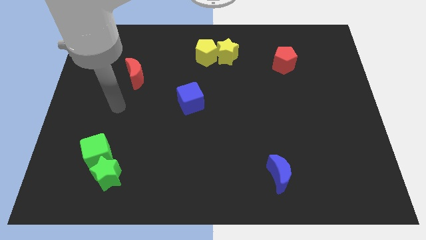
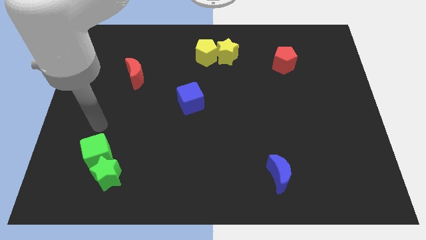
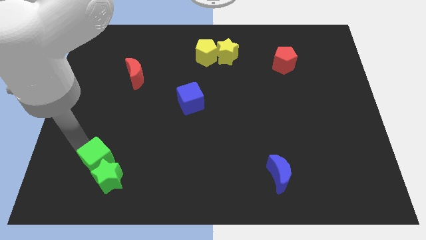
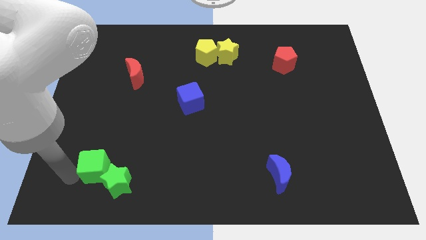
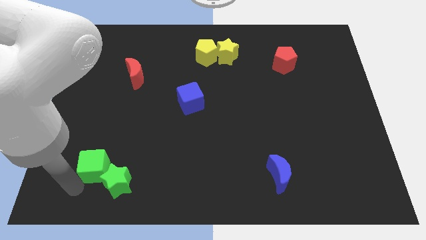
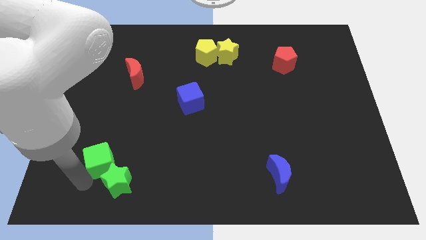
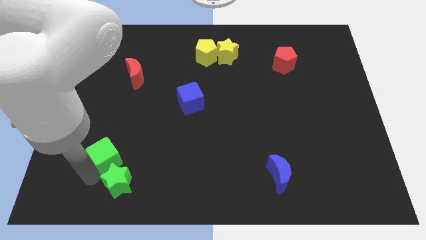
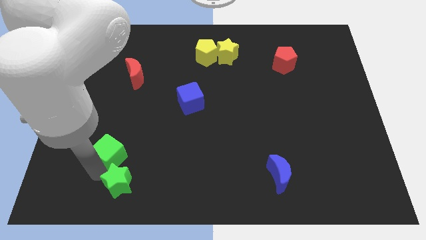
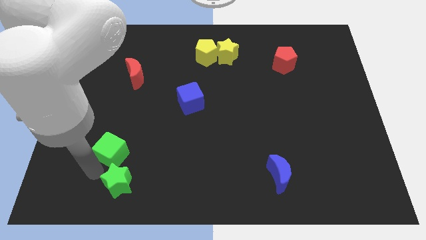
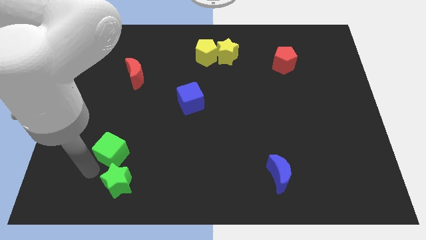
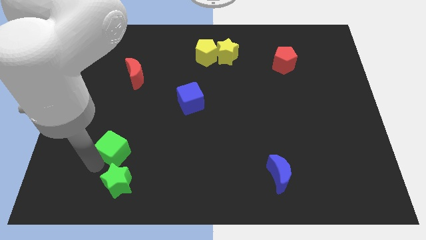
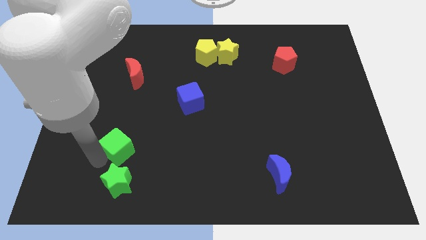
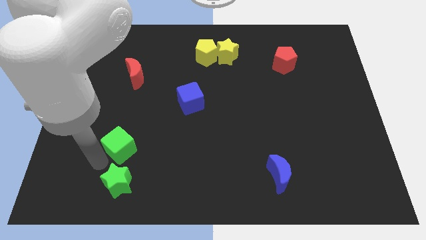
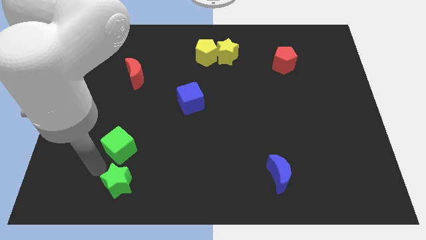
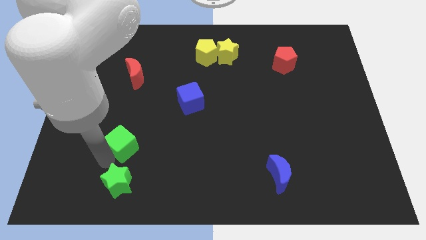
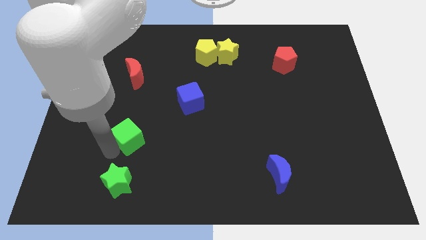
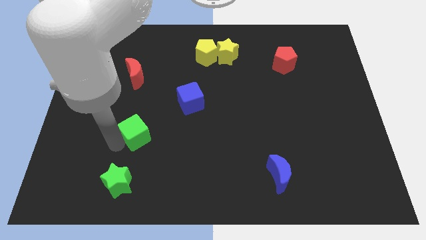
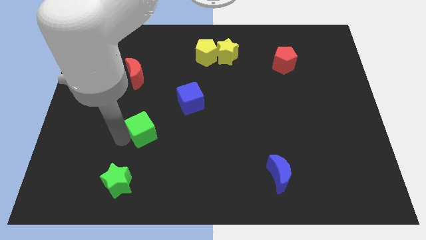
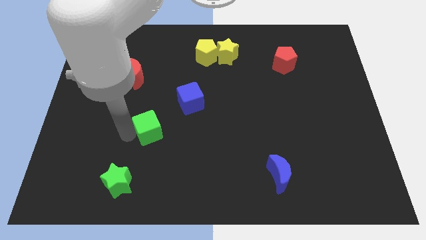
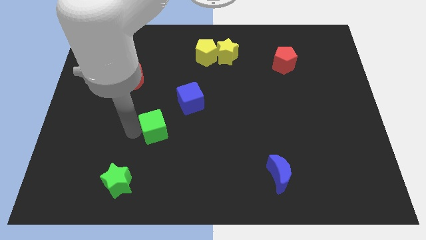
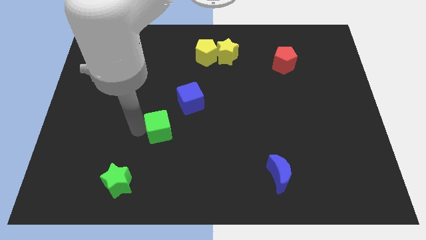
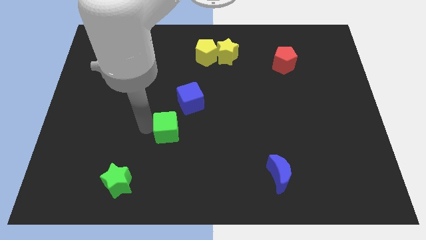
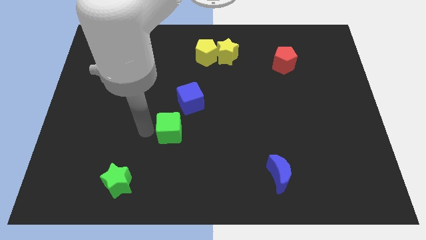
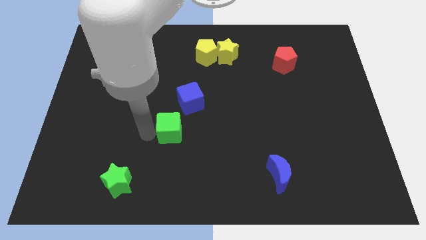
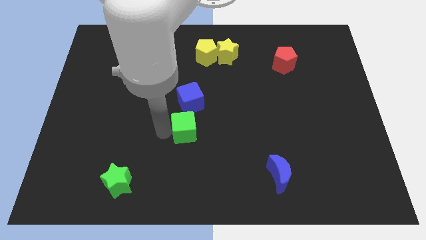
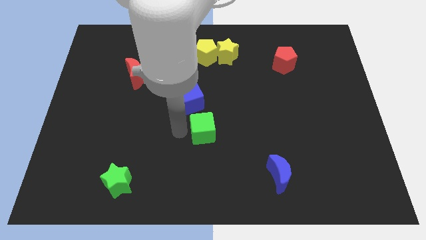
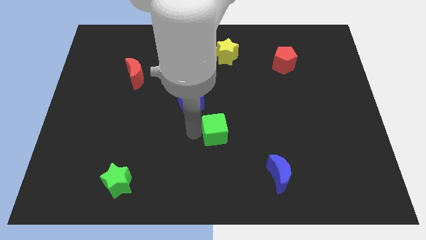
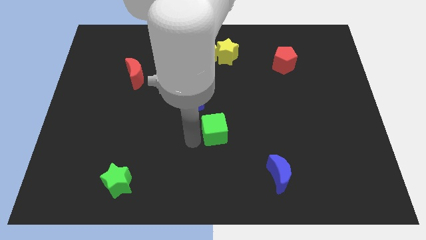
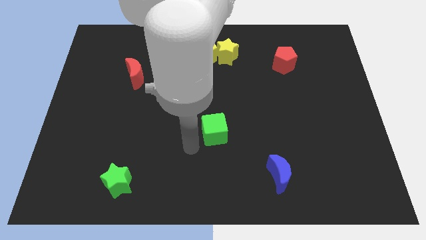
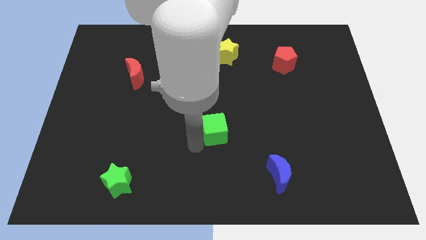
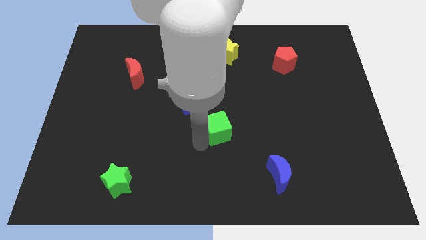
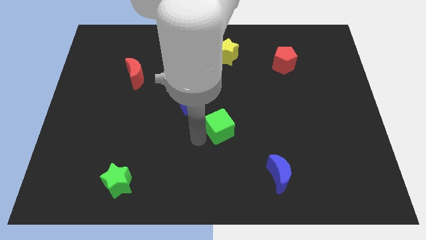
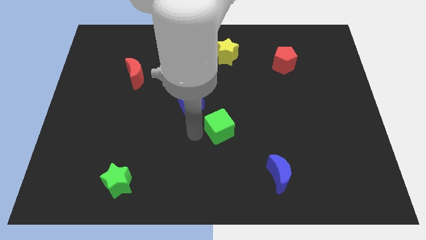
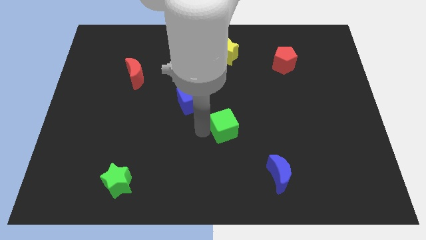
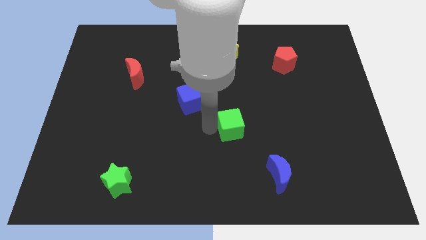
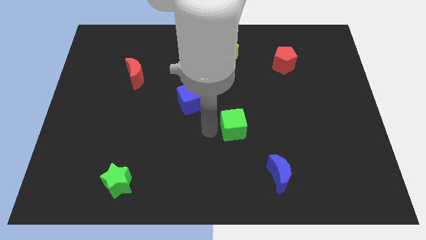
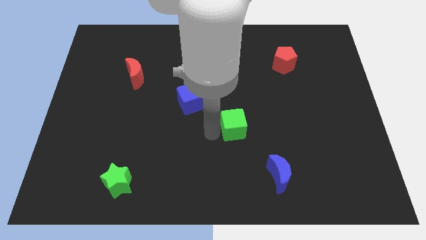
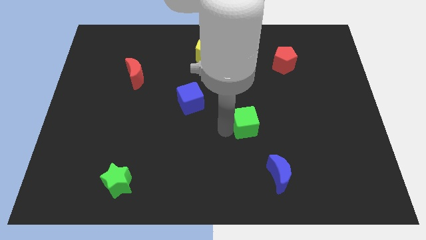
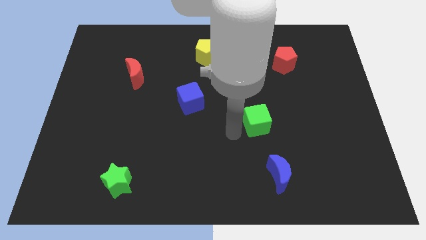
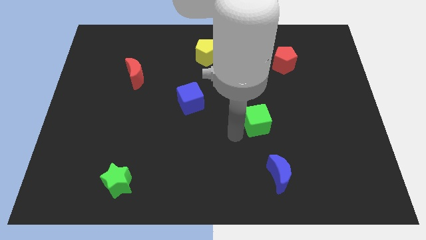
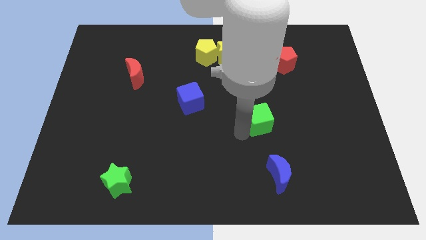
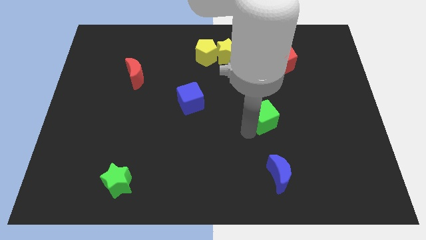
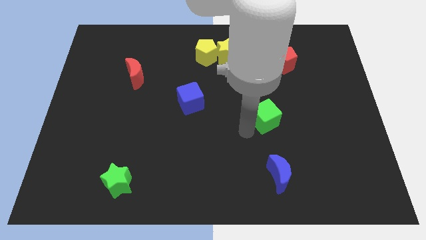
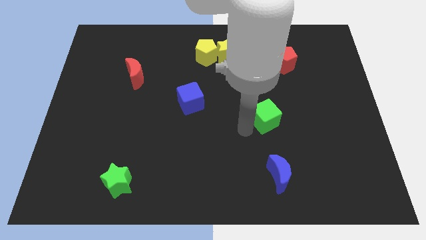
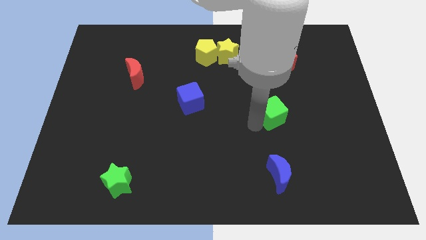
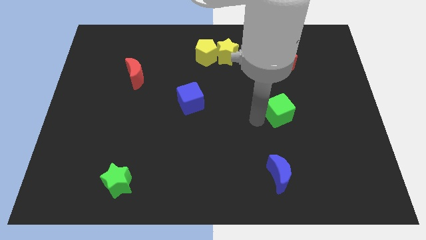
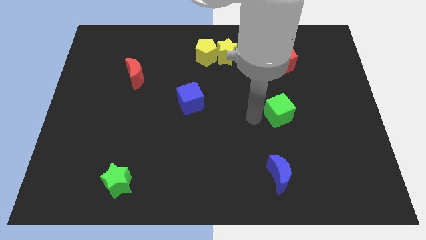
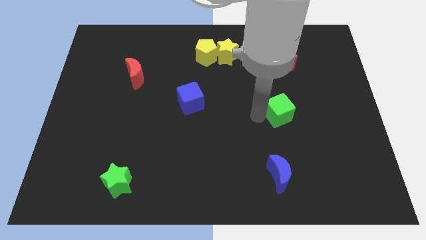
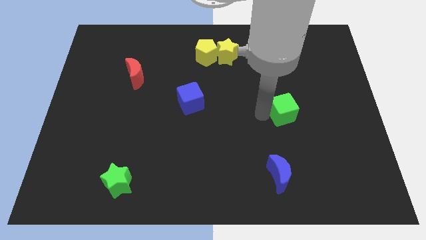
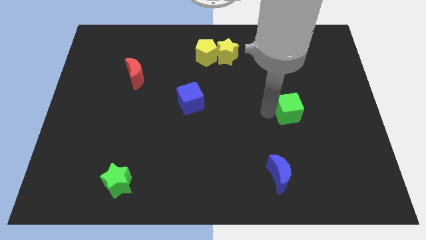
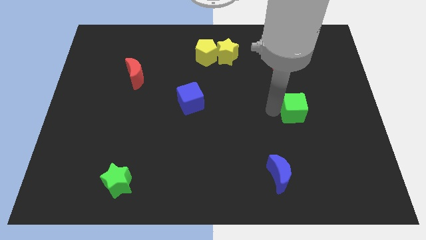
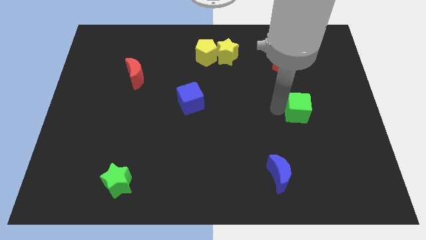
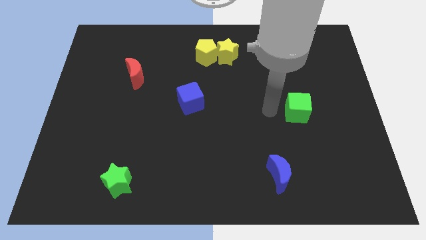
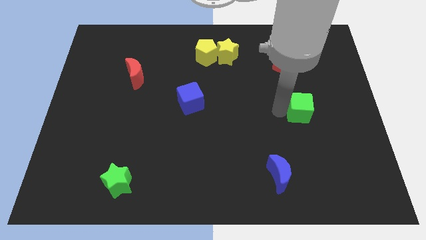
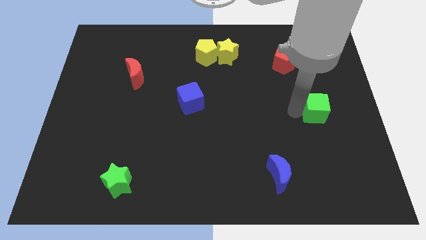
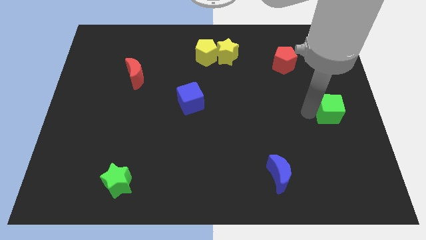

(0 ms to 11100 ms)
push the green cube to the right side

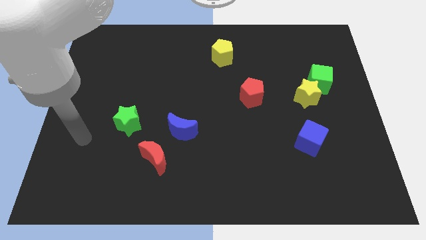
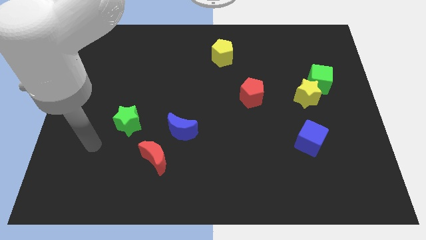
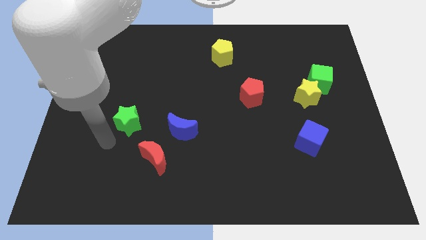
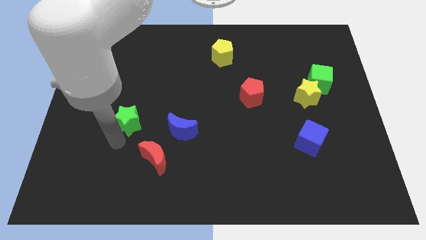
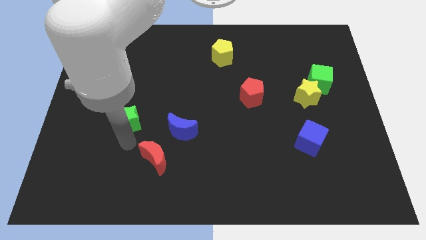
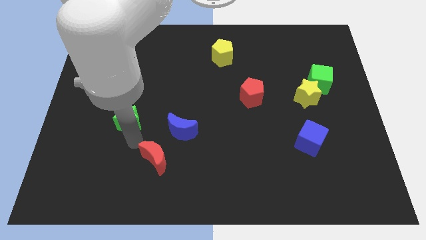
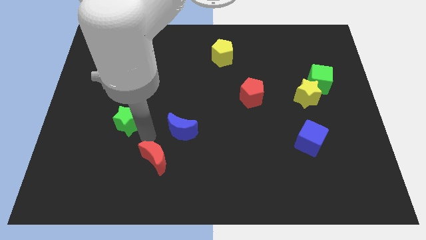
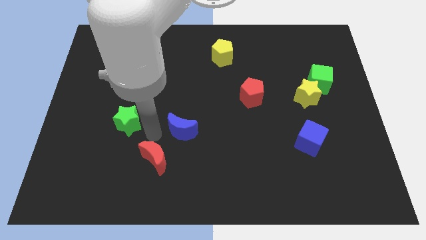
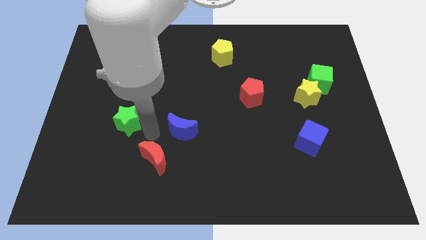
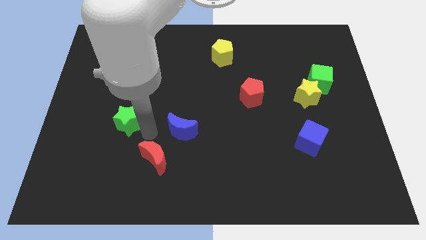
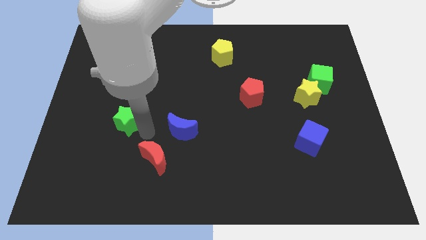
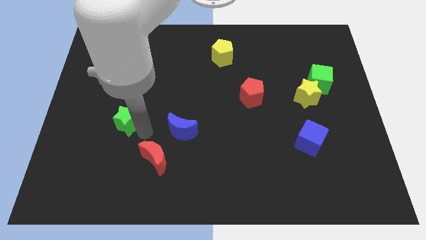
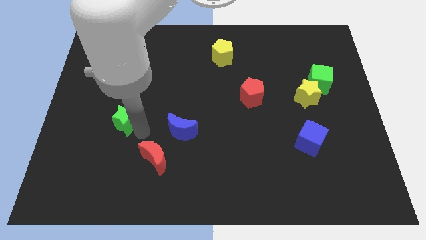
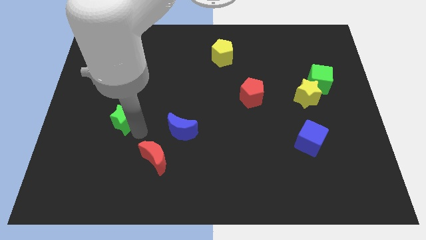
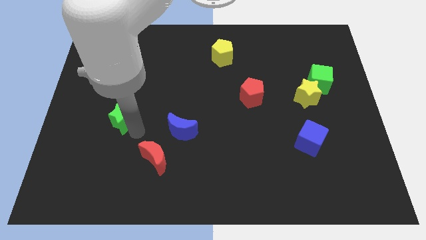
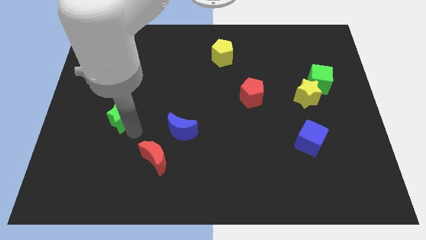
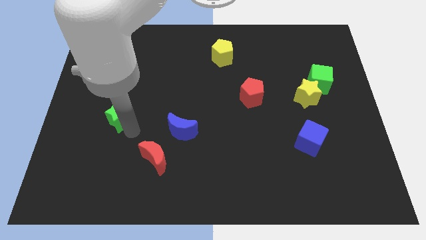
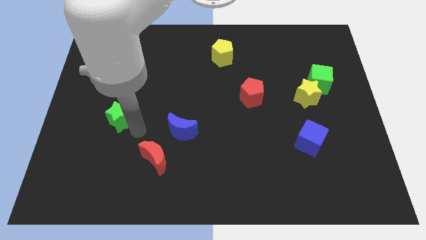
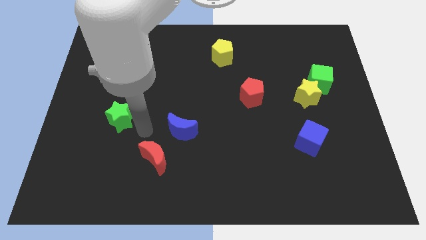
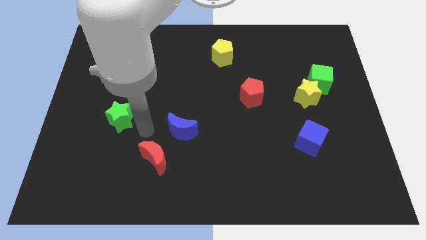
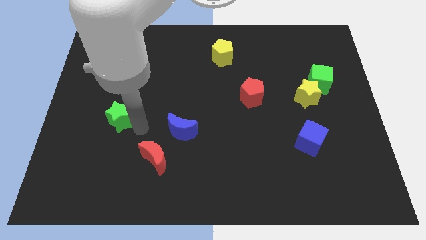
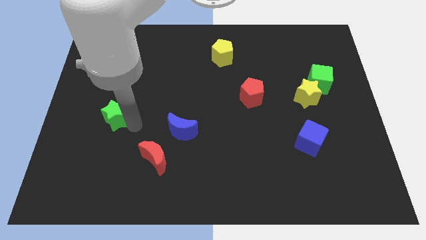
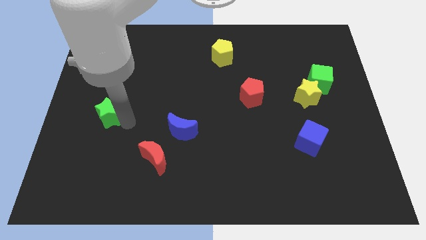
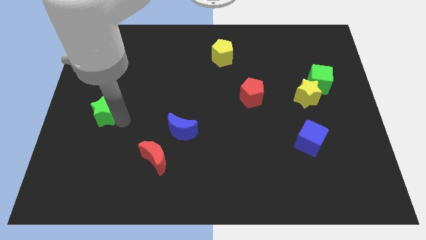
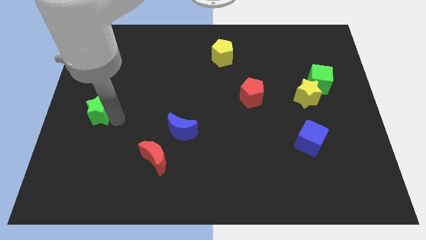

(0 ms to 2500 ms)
move the green star to the center left
